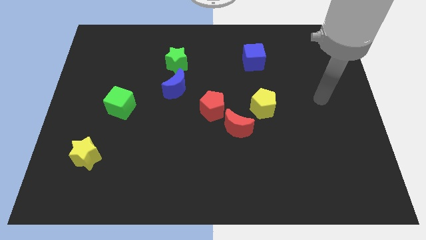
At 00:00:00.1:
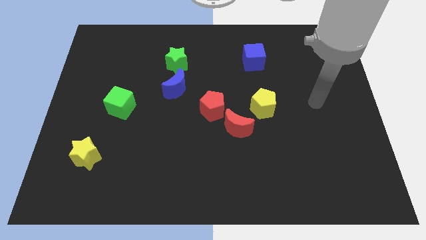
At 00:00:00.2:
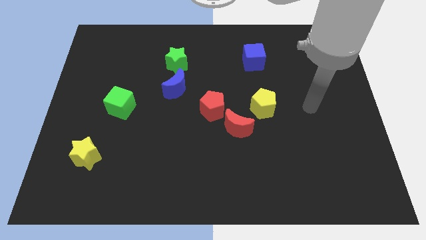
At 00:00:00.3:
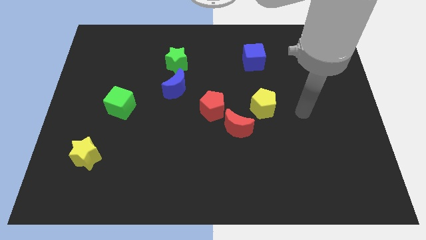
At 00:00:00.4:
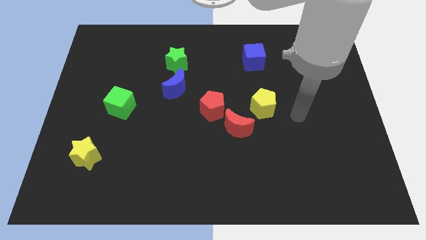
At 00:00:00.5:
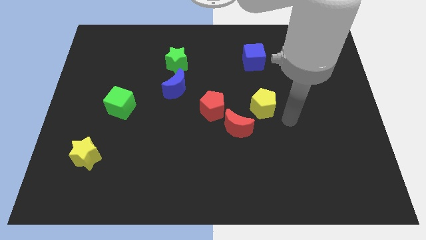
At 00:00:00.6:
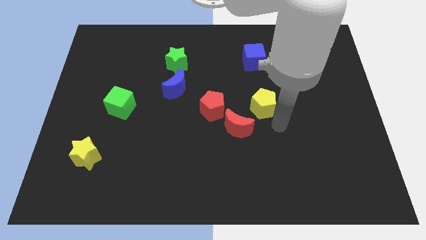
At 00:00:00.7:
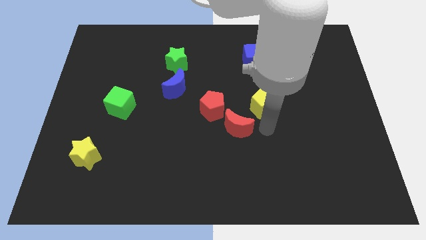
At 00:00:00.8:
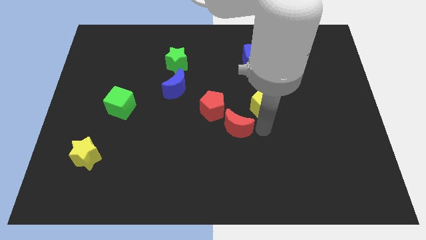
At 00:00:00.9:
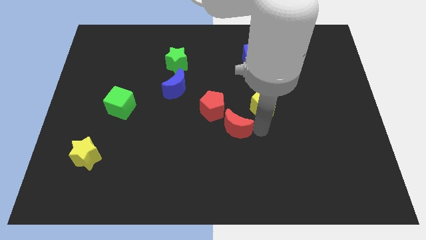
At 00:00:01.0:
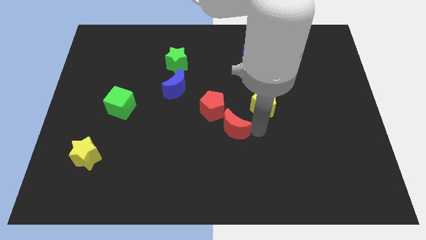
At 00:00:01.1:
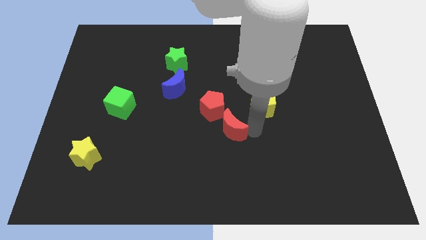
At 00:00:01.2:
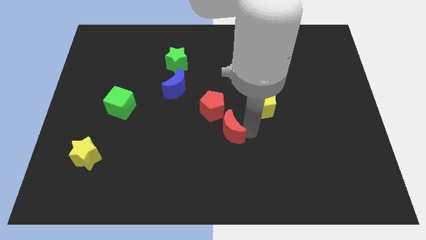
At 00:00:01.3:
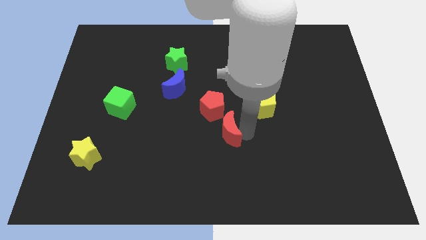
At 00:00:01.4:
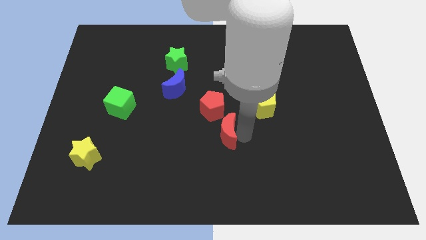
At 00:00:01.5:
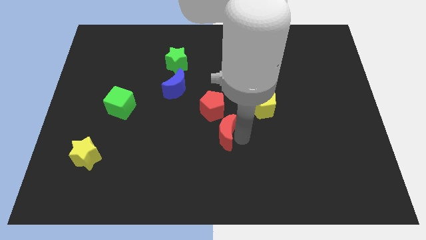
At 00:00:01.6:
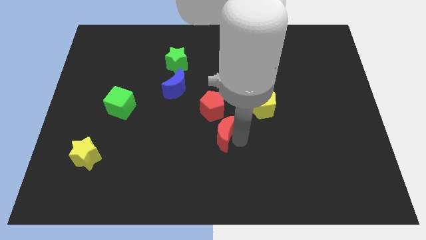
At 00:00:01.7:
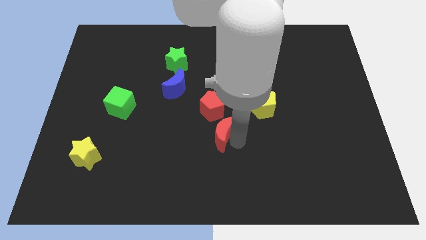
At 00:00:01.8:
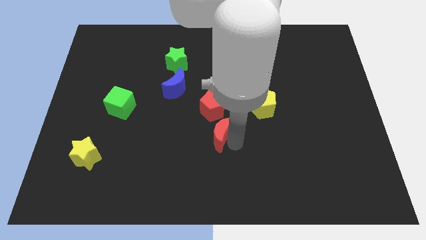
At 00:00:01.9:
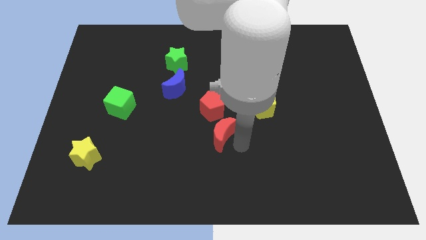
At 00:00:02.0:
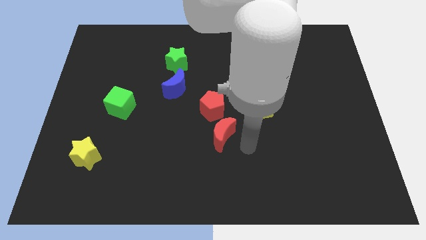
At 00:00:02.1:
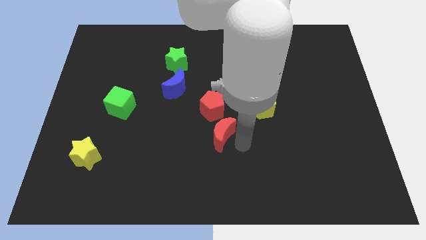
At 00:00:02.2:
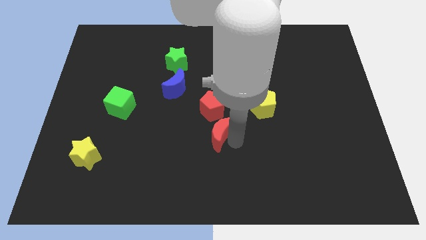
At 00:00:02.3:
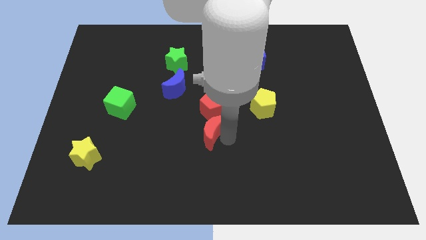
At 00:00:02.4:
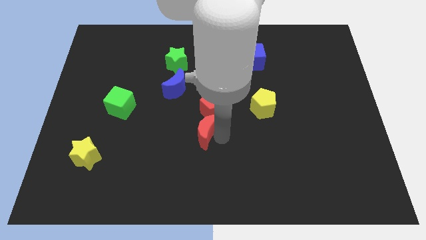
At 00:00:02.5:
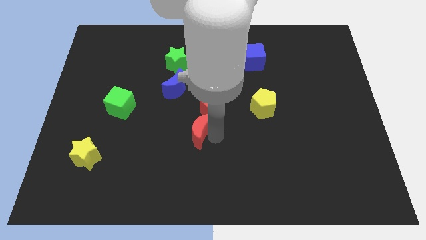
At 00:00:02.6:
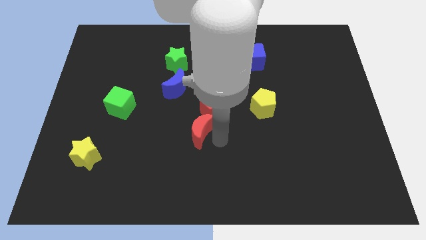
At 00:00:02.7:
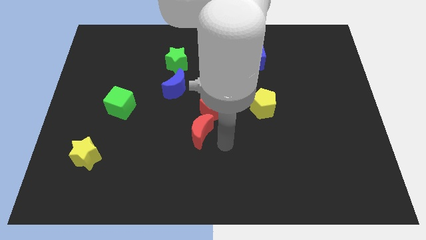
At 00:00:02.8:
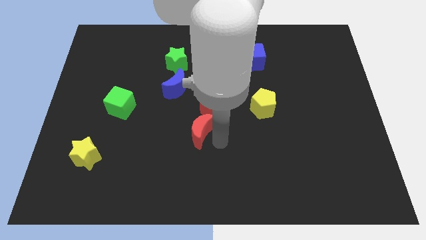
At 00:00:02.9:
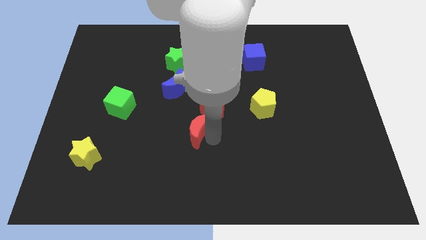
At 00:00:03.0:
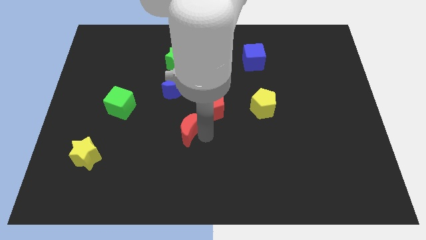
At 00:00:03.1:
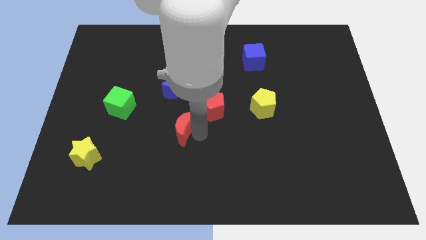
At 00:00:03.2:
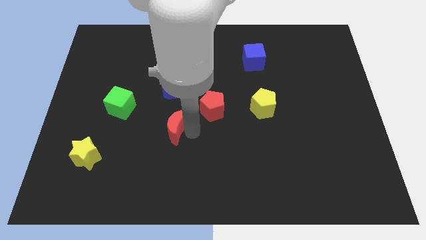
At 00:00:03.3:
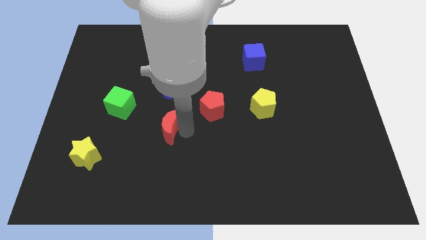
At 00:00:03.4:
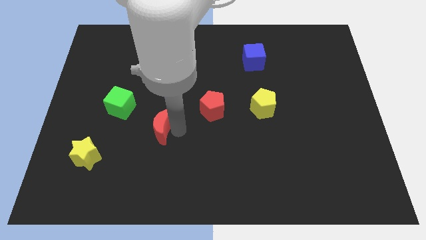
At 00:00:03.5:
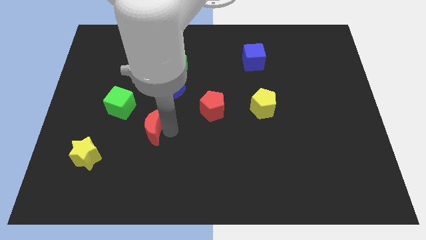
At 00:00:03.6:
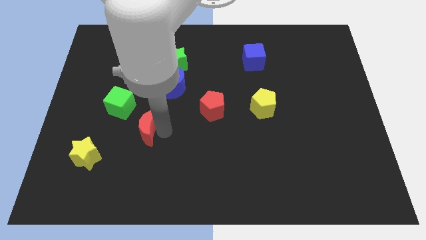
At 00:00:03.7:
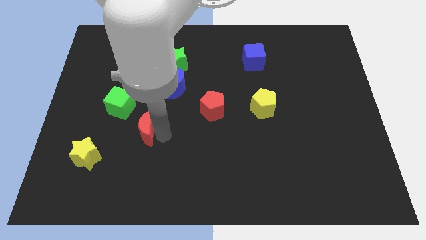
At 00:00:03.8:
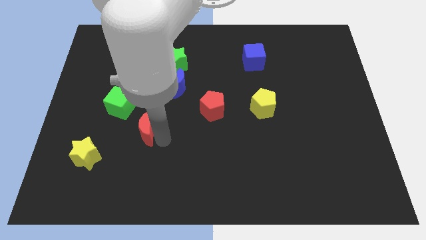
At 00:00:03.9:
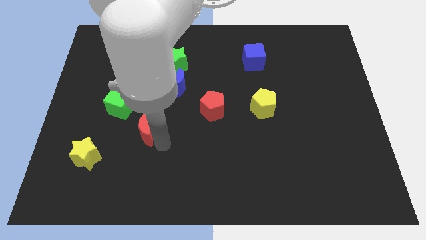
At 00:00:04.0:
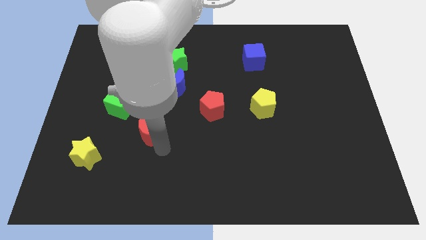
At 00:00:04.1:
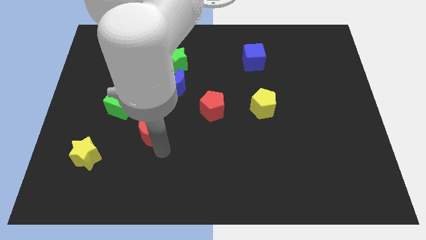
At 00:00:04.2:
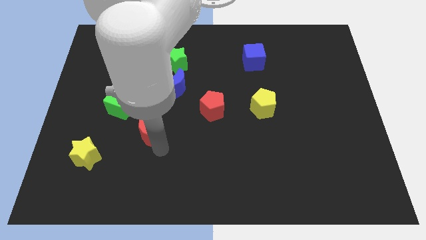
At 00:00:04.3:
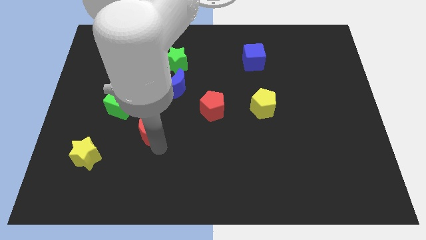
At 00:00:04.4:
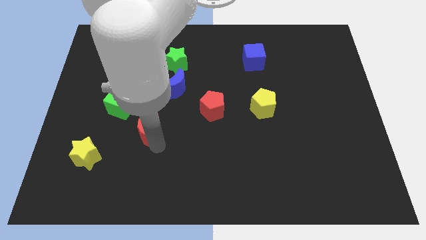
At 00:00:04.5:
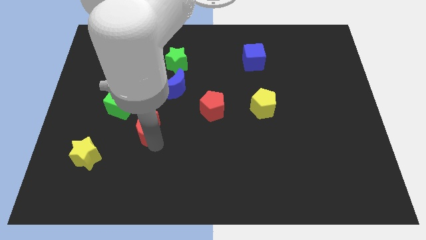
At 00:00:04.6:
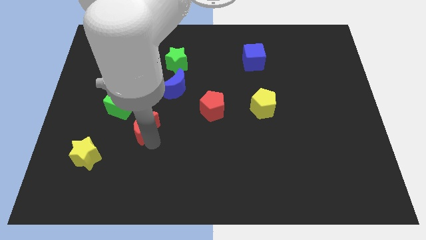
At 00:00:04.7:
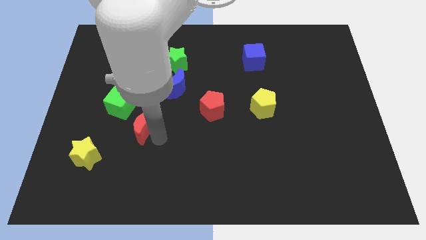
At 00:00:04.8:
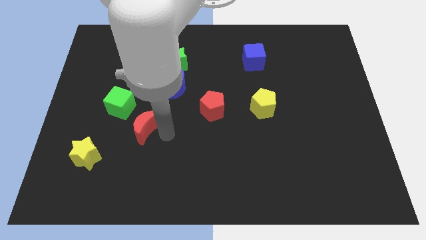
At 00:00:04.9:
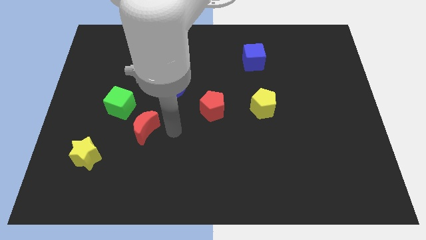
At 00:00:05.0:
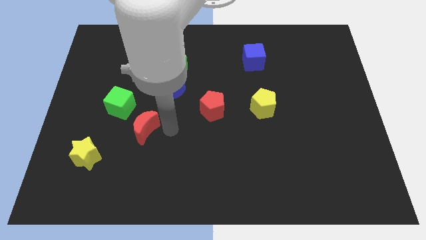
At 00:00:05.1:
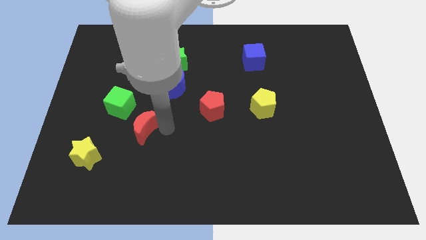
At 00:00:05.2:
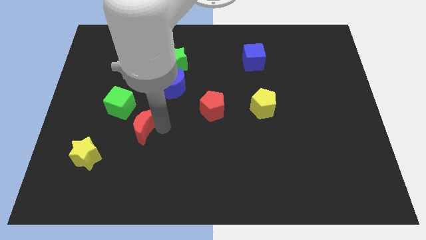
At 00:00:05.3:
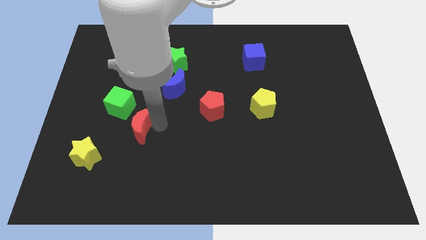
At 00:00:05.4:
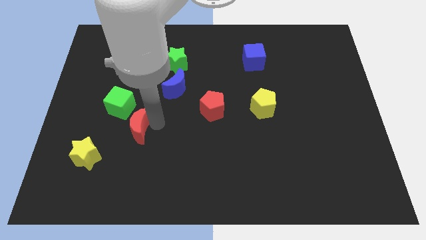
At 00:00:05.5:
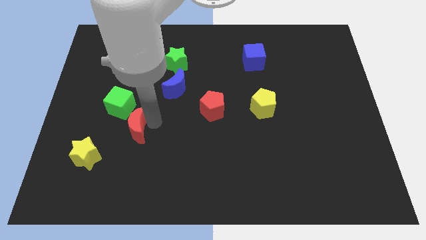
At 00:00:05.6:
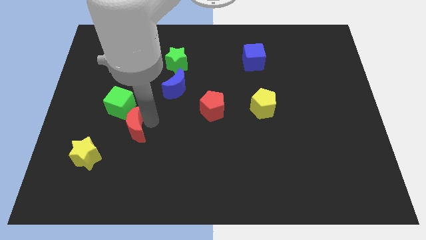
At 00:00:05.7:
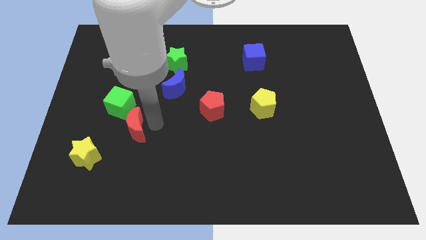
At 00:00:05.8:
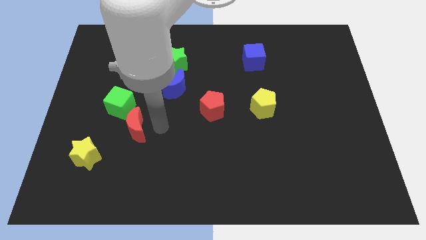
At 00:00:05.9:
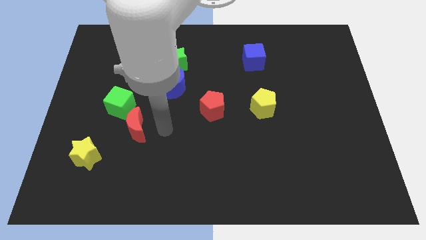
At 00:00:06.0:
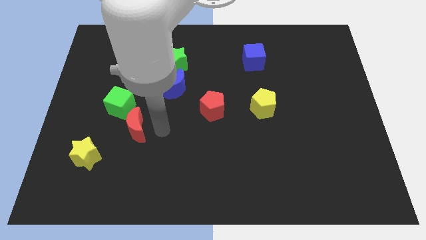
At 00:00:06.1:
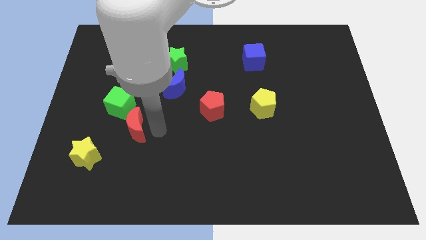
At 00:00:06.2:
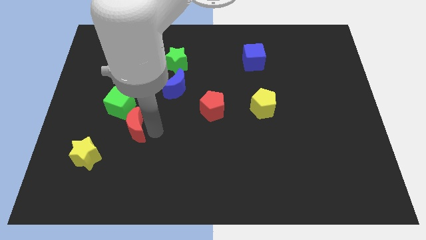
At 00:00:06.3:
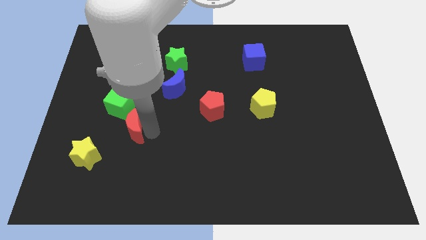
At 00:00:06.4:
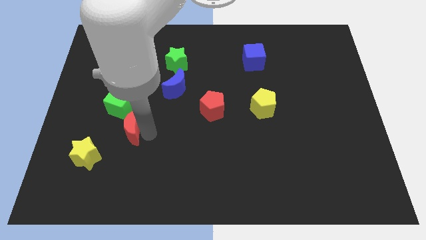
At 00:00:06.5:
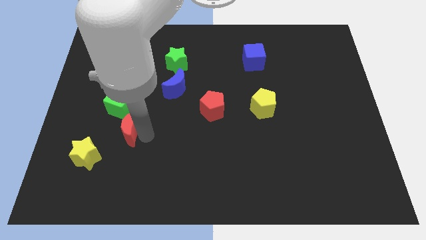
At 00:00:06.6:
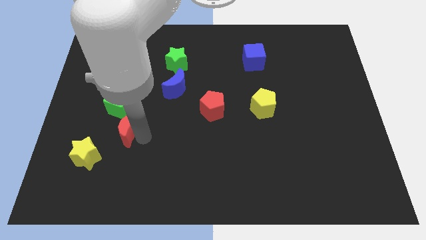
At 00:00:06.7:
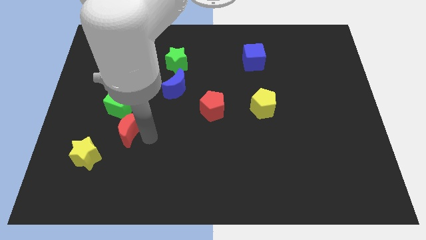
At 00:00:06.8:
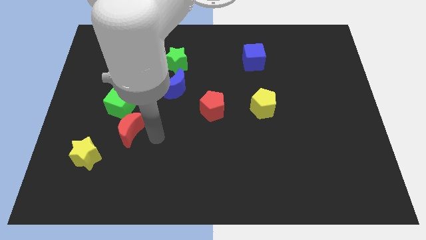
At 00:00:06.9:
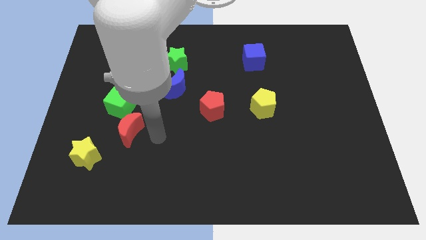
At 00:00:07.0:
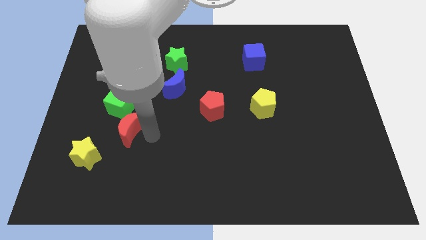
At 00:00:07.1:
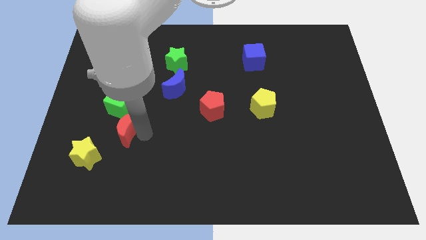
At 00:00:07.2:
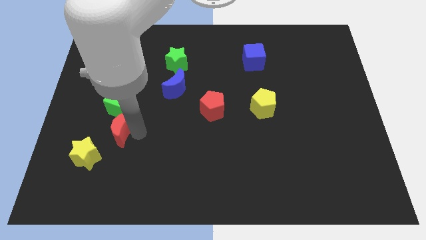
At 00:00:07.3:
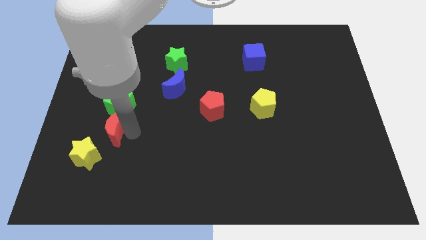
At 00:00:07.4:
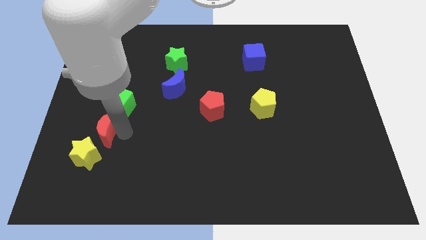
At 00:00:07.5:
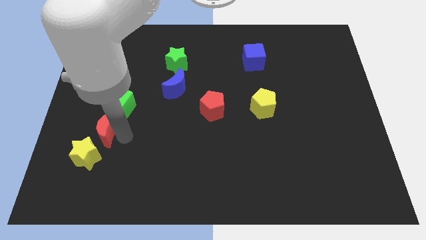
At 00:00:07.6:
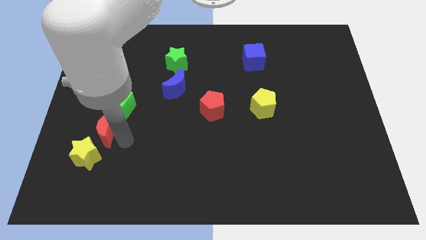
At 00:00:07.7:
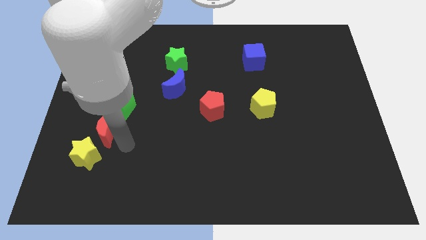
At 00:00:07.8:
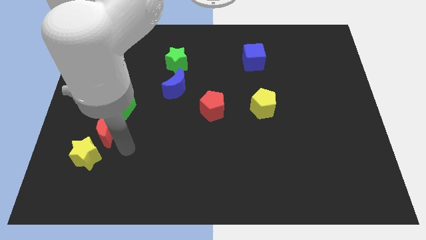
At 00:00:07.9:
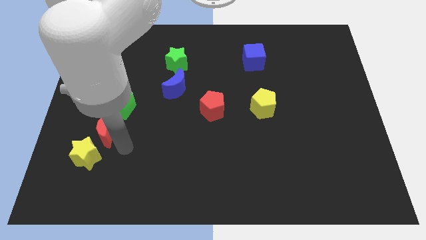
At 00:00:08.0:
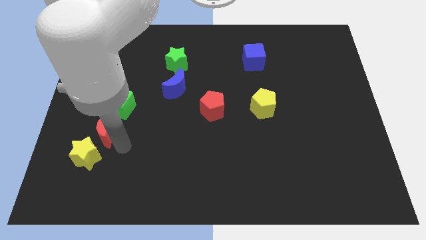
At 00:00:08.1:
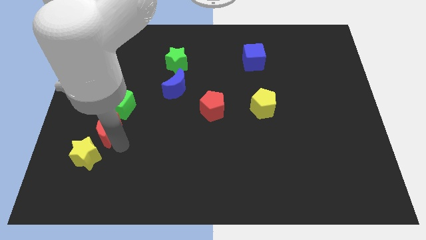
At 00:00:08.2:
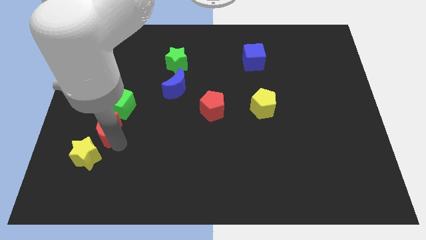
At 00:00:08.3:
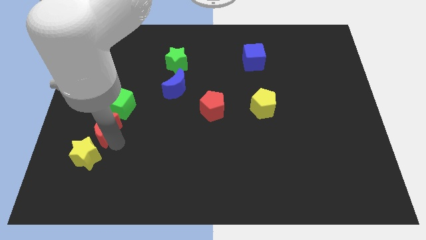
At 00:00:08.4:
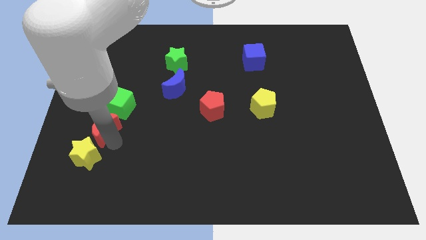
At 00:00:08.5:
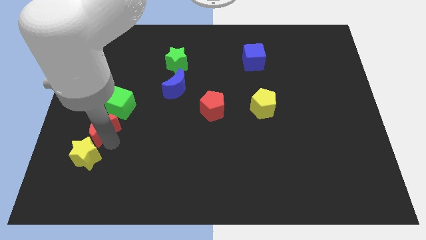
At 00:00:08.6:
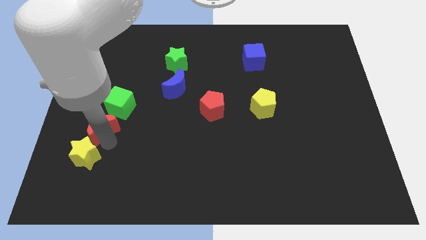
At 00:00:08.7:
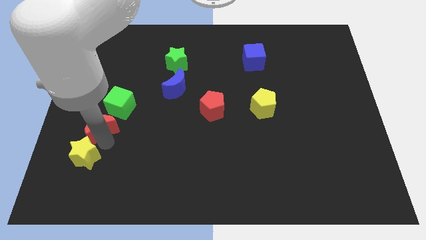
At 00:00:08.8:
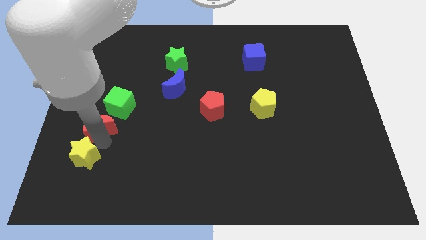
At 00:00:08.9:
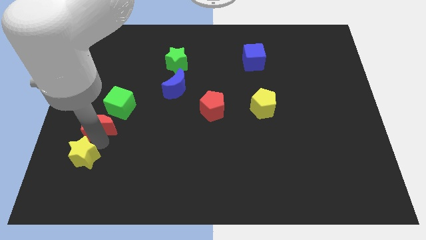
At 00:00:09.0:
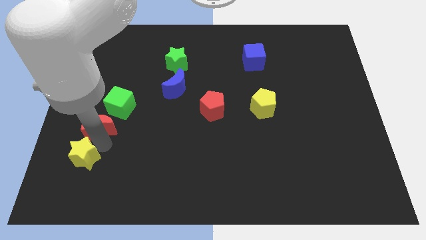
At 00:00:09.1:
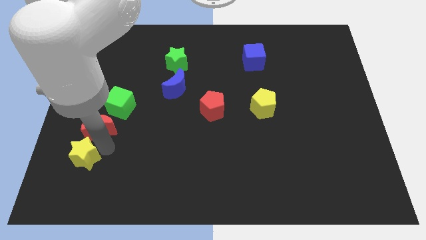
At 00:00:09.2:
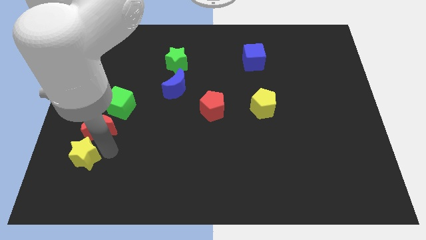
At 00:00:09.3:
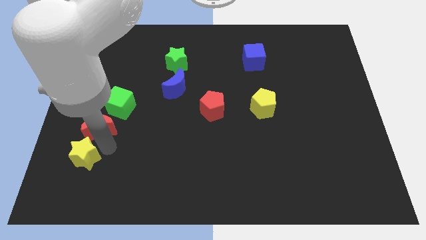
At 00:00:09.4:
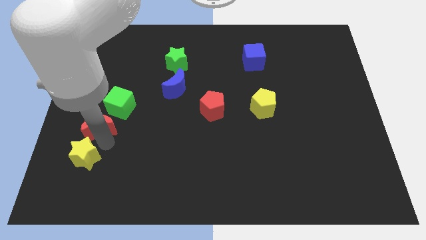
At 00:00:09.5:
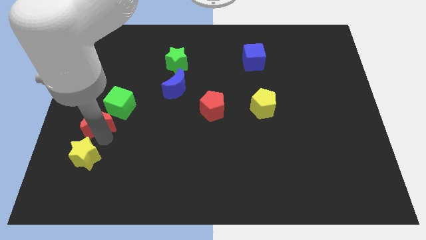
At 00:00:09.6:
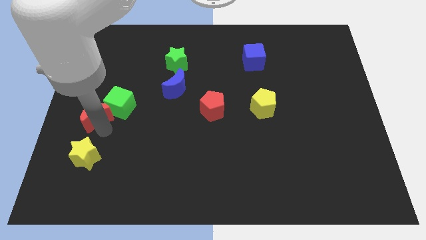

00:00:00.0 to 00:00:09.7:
move the red moon to the left side of the board
